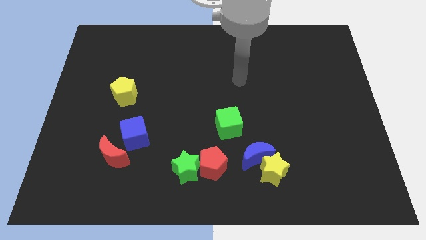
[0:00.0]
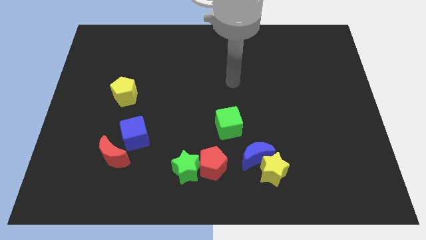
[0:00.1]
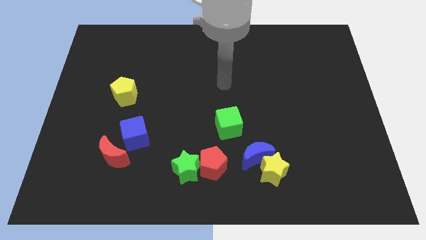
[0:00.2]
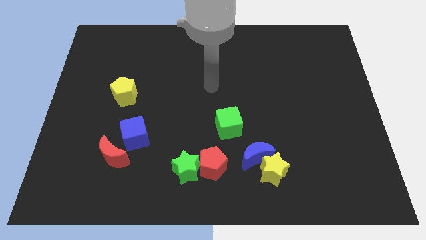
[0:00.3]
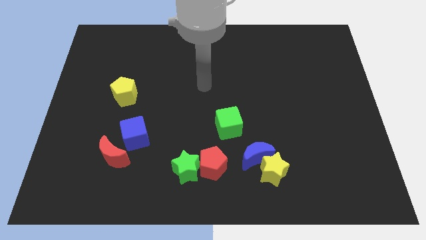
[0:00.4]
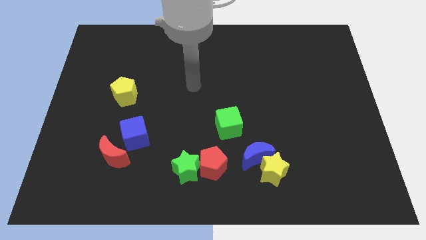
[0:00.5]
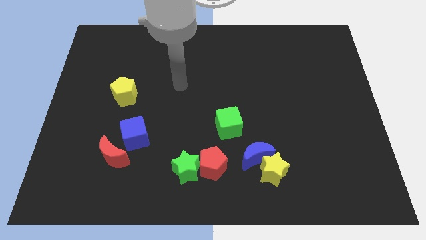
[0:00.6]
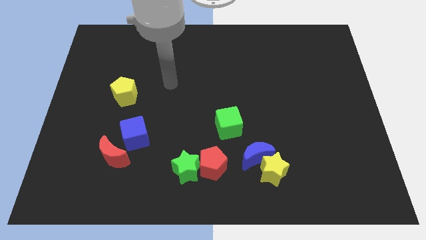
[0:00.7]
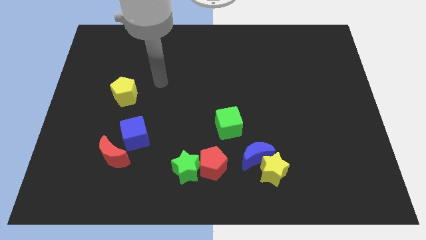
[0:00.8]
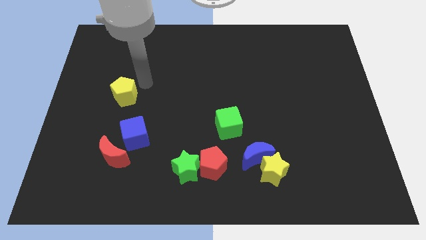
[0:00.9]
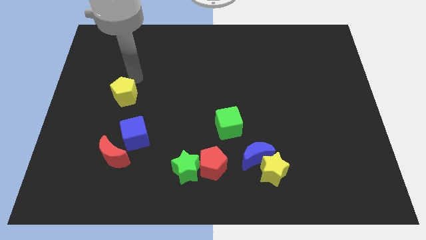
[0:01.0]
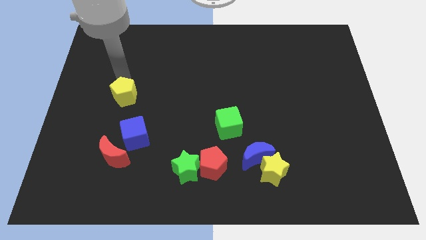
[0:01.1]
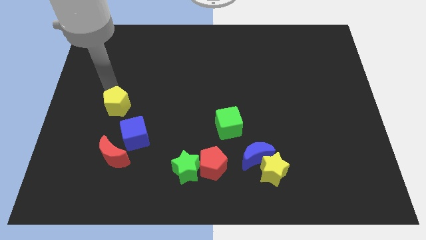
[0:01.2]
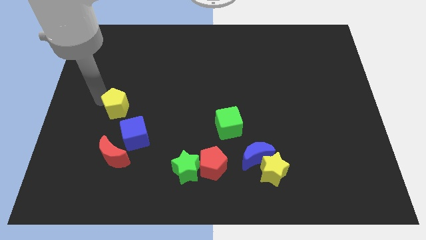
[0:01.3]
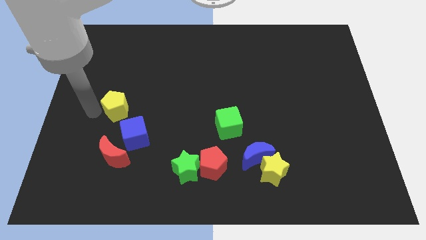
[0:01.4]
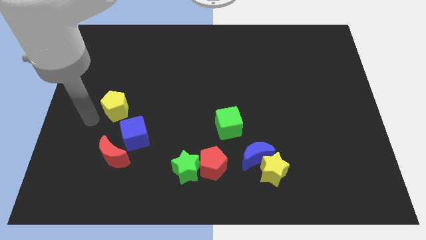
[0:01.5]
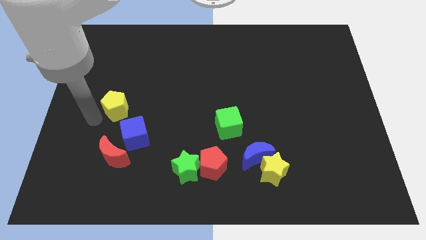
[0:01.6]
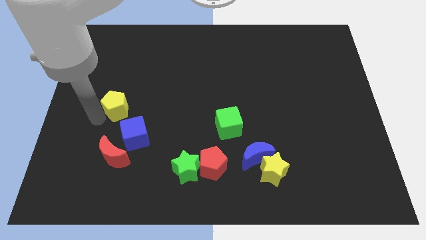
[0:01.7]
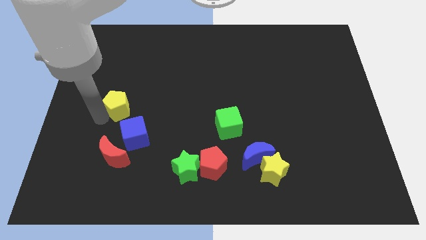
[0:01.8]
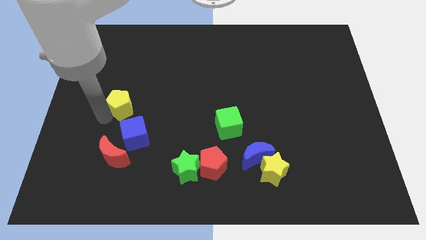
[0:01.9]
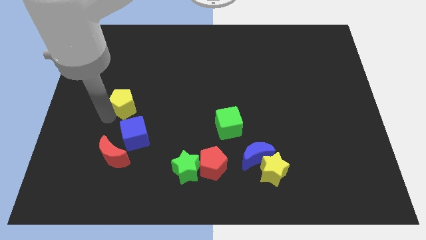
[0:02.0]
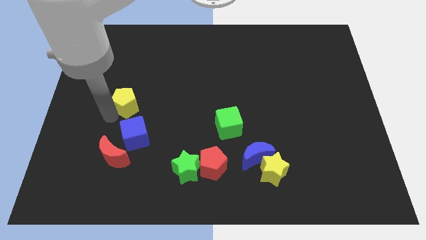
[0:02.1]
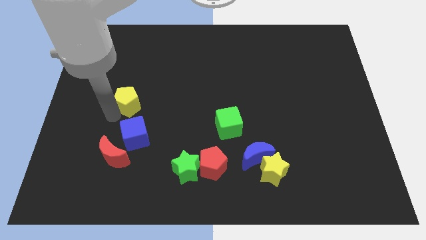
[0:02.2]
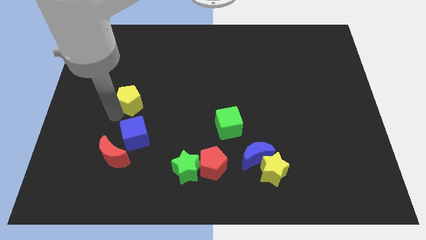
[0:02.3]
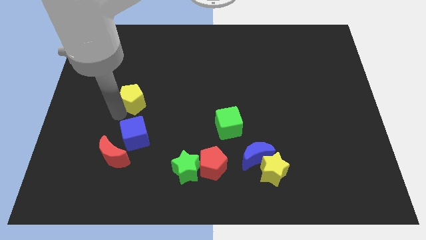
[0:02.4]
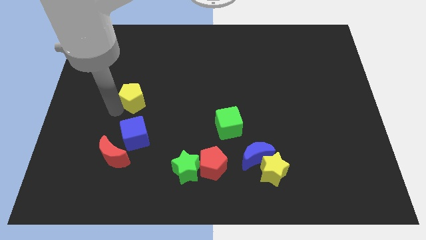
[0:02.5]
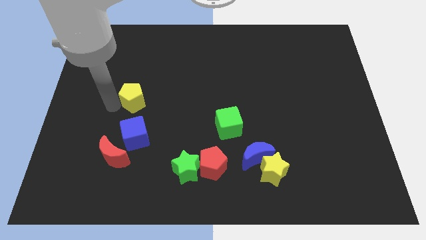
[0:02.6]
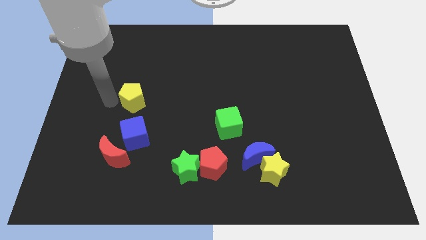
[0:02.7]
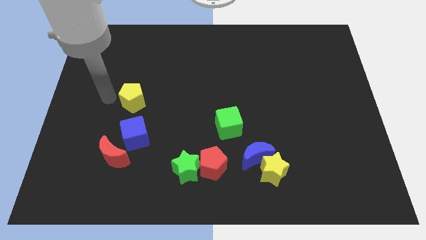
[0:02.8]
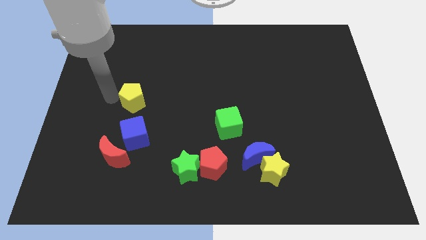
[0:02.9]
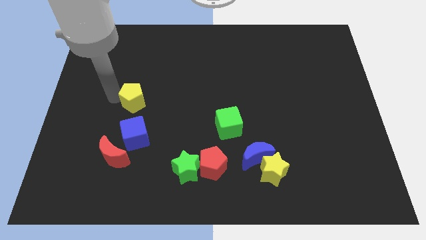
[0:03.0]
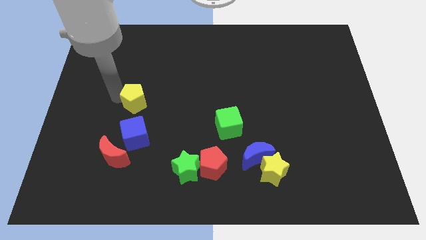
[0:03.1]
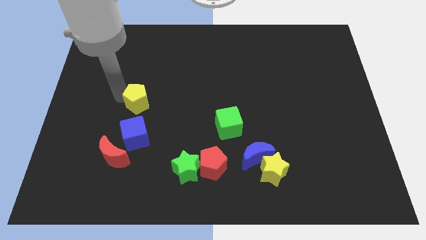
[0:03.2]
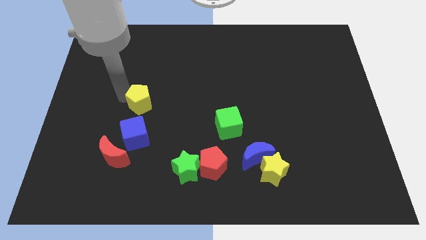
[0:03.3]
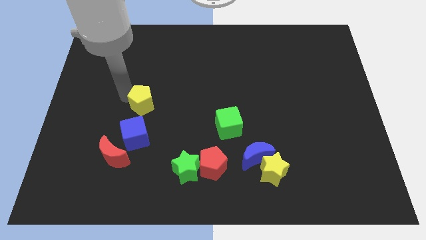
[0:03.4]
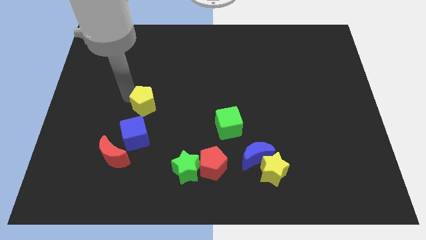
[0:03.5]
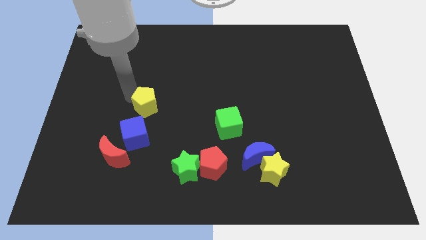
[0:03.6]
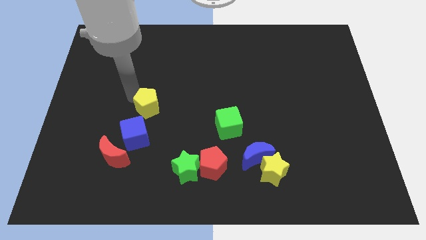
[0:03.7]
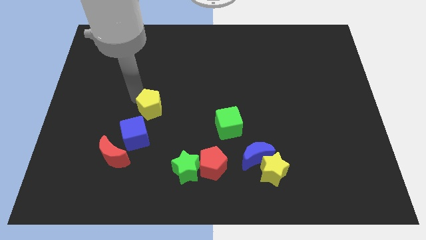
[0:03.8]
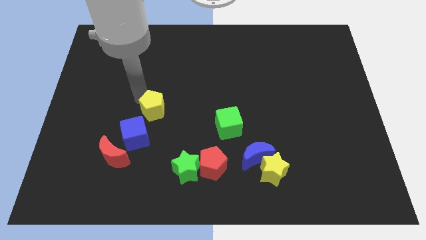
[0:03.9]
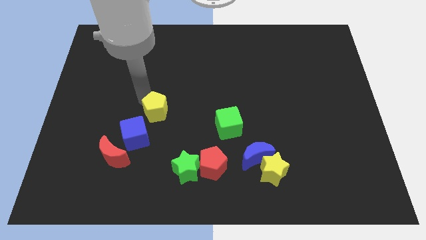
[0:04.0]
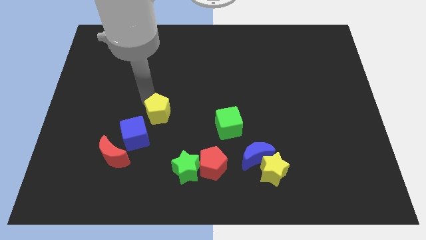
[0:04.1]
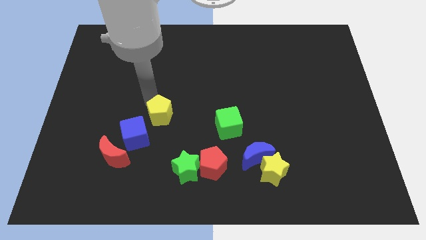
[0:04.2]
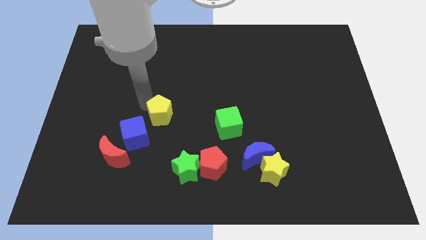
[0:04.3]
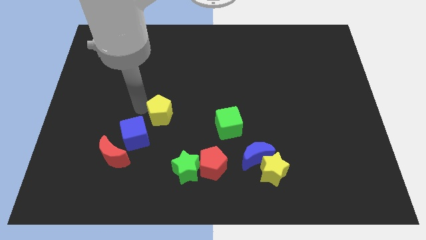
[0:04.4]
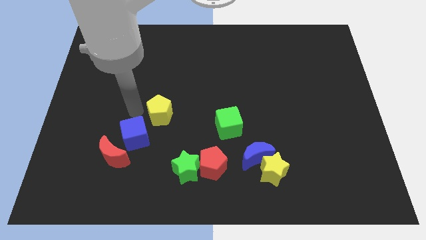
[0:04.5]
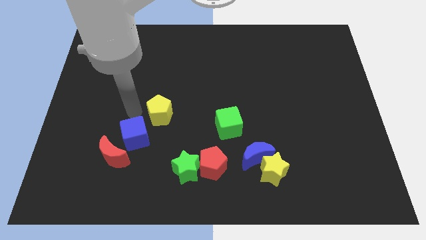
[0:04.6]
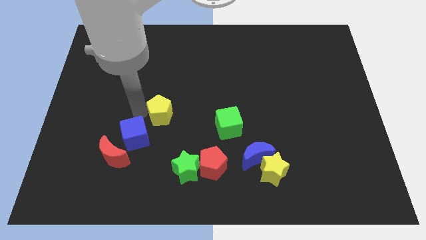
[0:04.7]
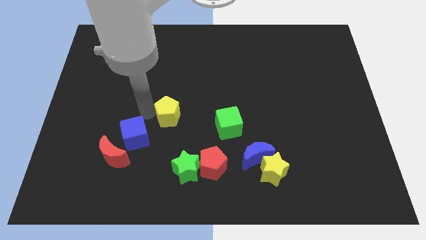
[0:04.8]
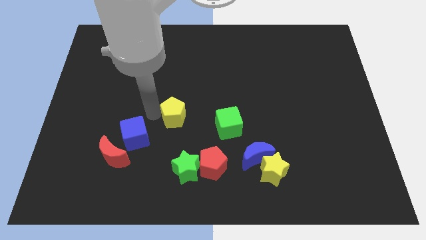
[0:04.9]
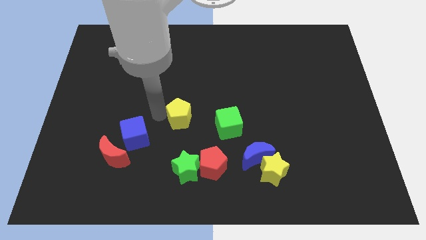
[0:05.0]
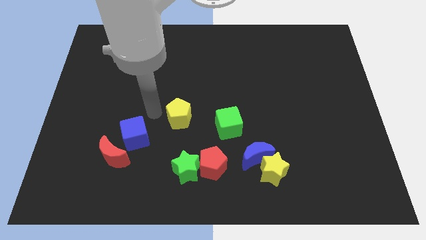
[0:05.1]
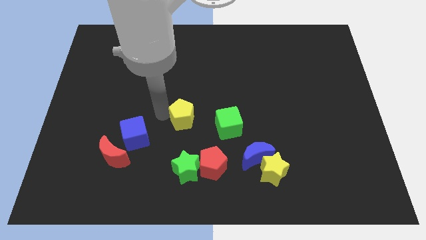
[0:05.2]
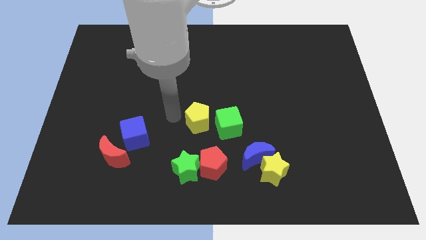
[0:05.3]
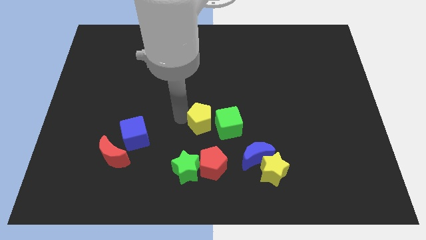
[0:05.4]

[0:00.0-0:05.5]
move the yellow pentagon next to the green cube

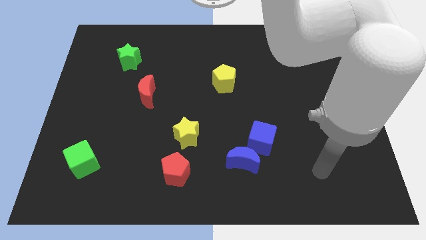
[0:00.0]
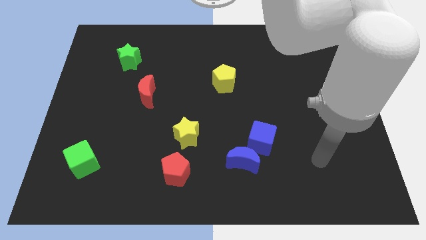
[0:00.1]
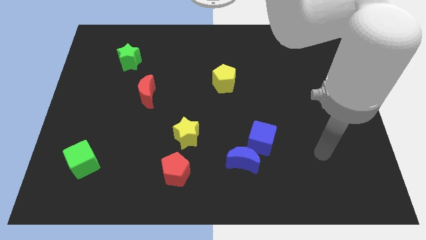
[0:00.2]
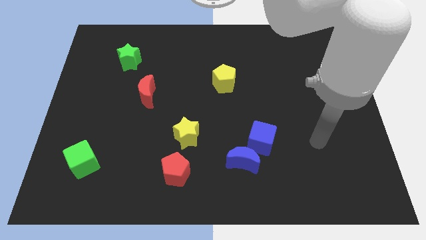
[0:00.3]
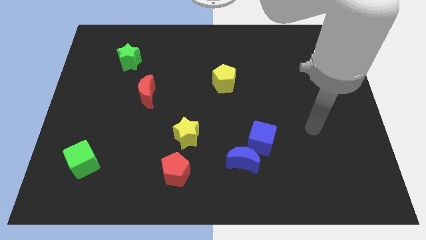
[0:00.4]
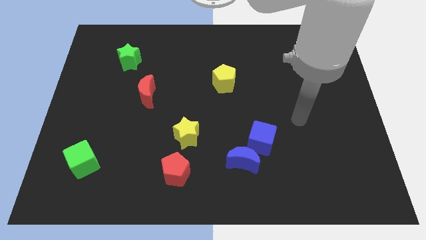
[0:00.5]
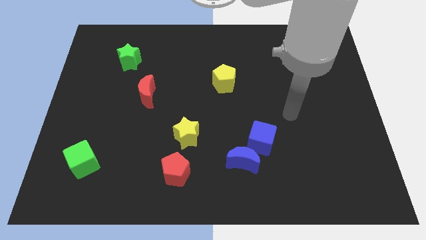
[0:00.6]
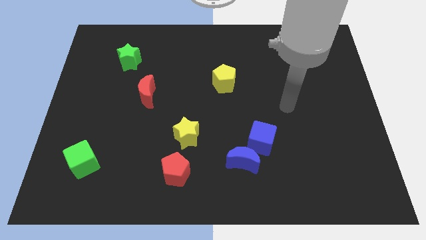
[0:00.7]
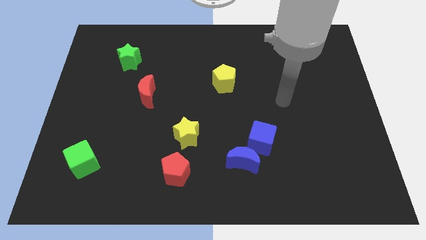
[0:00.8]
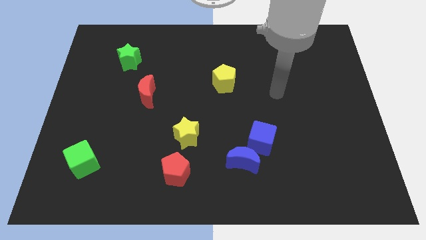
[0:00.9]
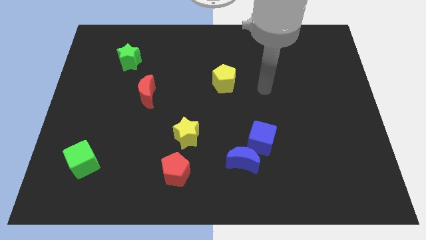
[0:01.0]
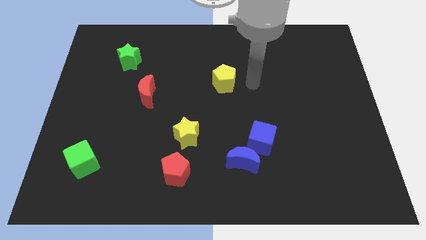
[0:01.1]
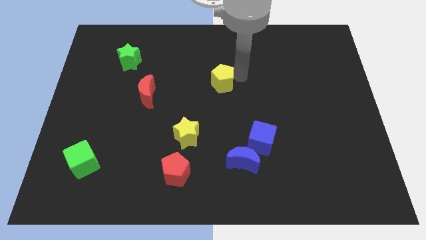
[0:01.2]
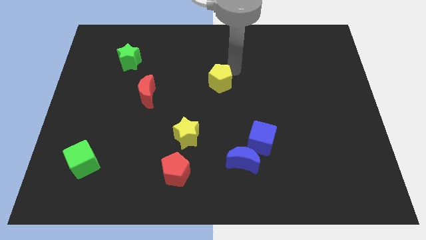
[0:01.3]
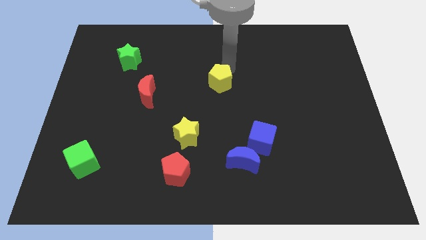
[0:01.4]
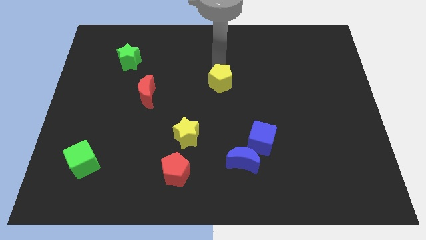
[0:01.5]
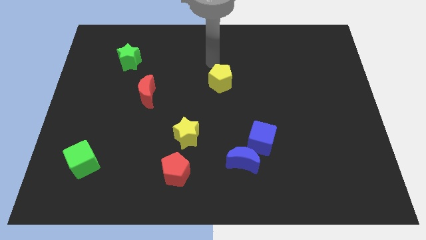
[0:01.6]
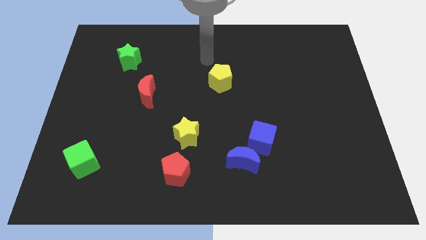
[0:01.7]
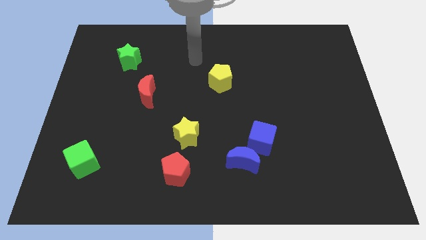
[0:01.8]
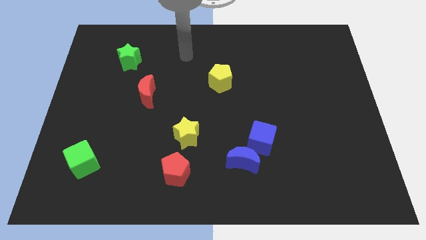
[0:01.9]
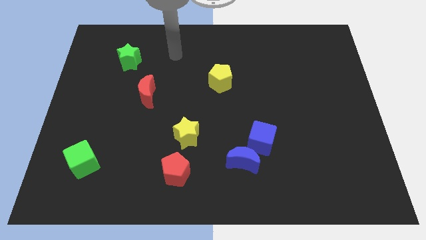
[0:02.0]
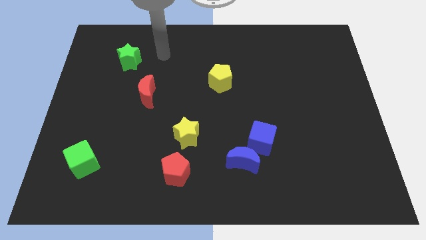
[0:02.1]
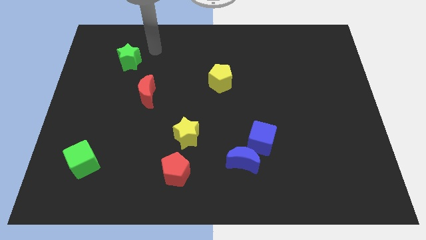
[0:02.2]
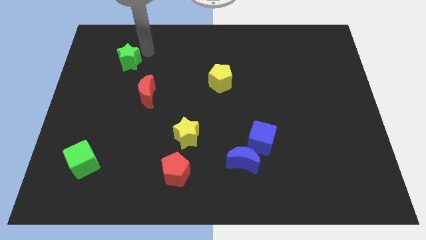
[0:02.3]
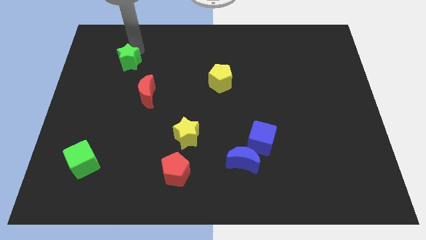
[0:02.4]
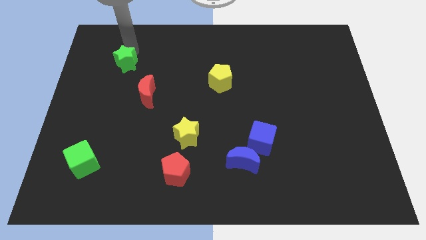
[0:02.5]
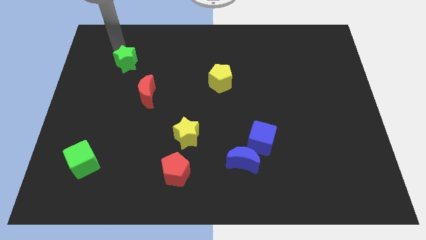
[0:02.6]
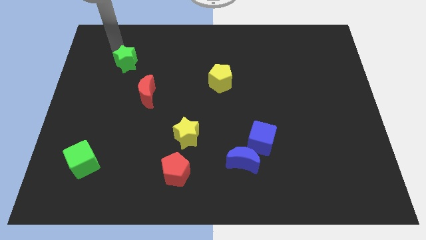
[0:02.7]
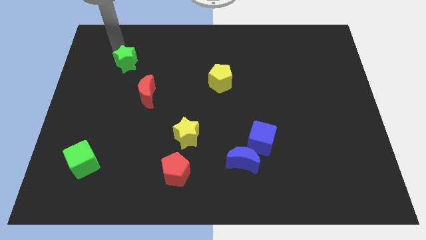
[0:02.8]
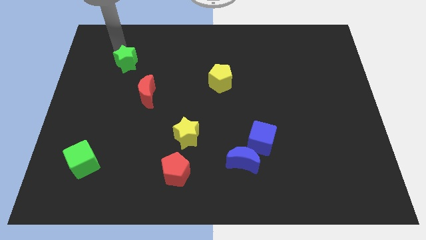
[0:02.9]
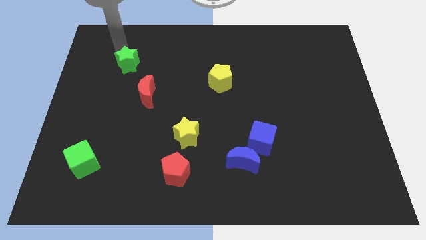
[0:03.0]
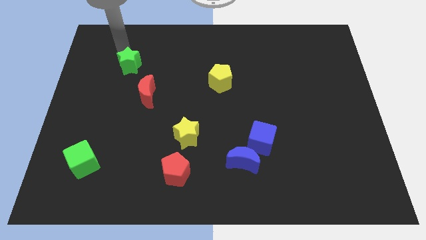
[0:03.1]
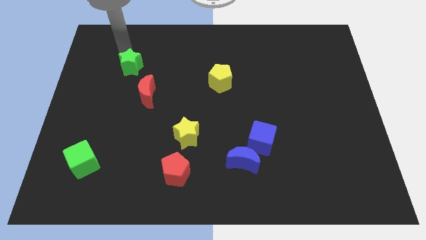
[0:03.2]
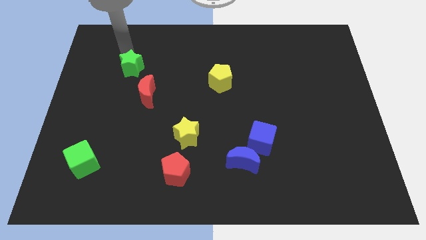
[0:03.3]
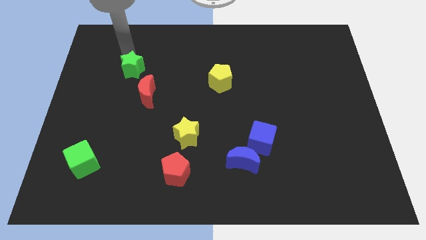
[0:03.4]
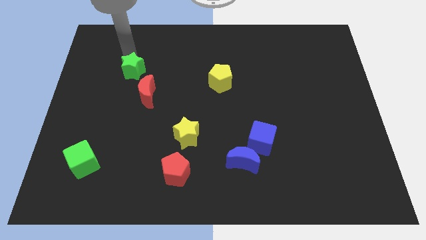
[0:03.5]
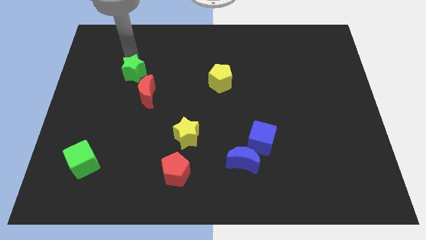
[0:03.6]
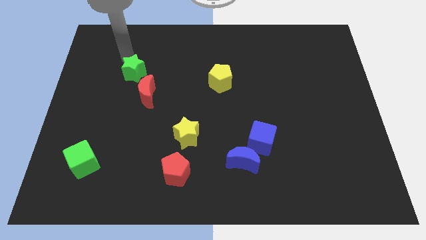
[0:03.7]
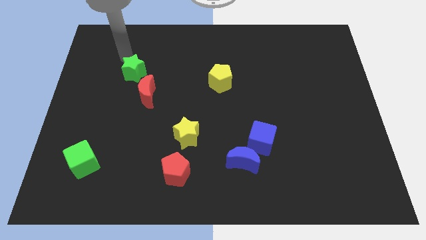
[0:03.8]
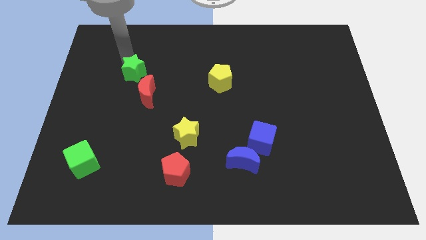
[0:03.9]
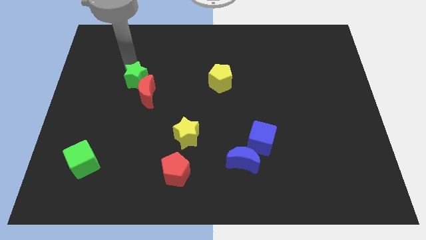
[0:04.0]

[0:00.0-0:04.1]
push the green star close to the red moon
